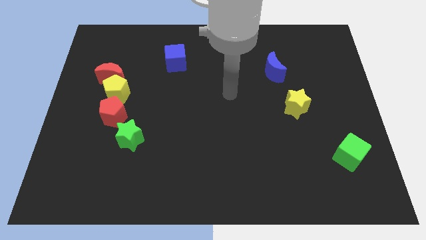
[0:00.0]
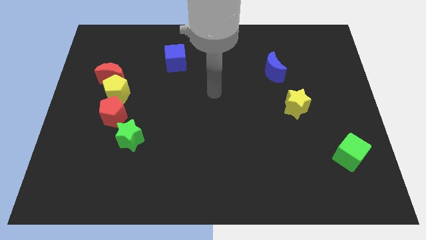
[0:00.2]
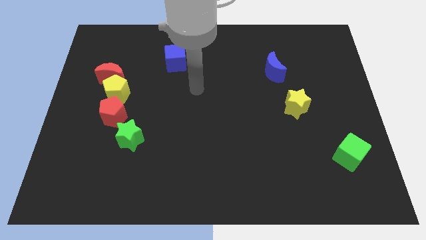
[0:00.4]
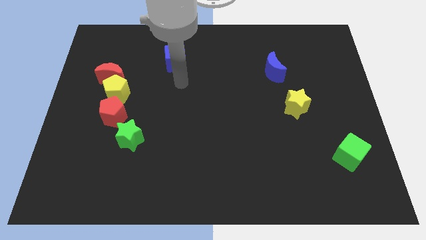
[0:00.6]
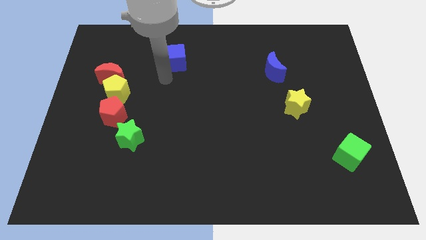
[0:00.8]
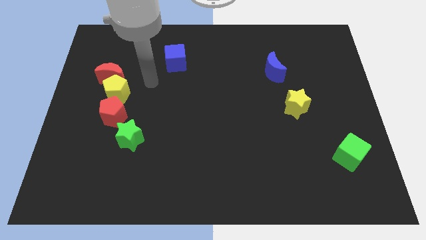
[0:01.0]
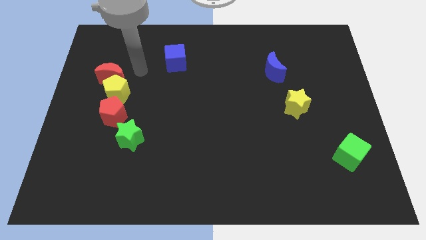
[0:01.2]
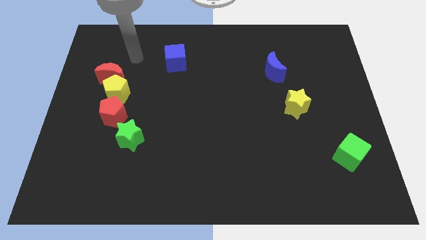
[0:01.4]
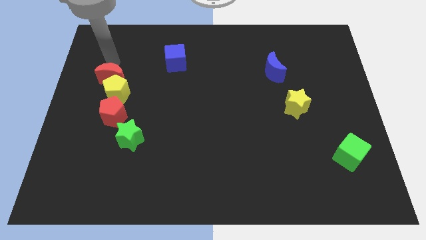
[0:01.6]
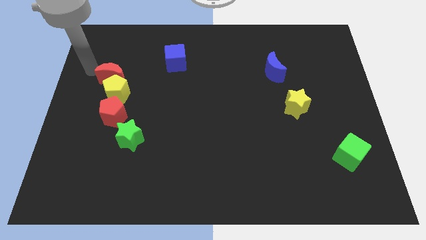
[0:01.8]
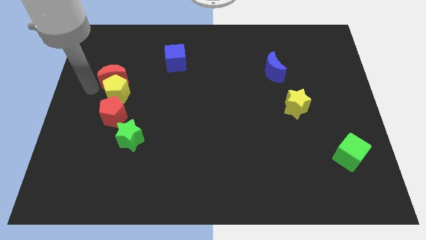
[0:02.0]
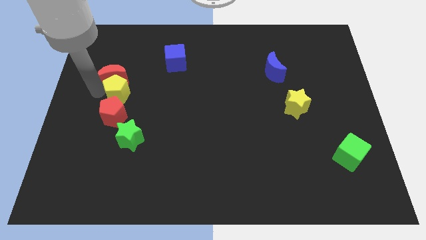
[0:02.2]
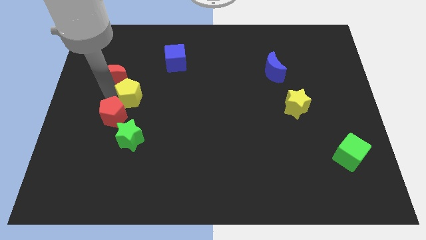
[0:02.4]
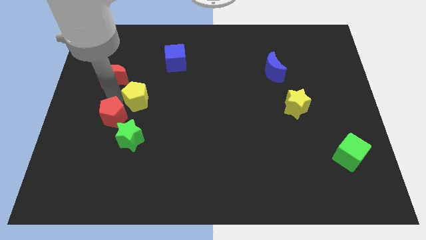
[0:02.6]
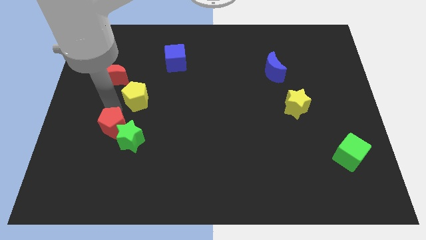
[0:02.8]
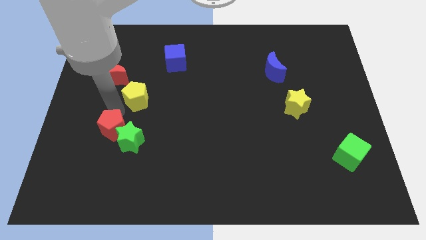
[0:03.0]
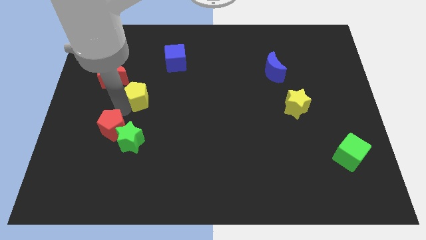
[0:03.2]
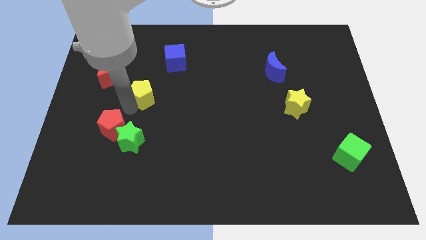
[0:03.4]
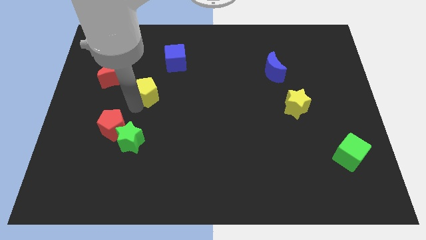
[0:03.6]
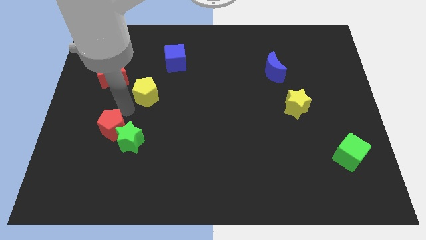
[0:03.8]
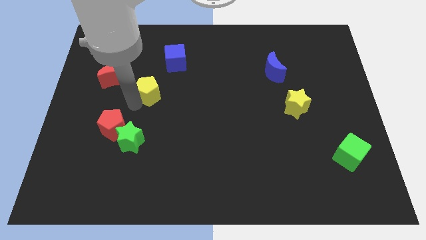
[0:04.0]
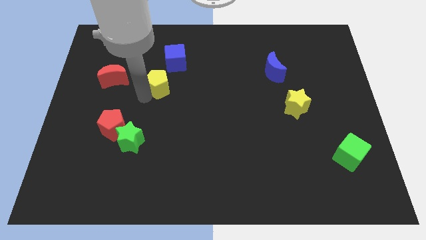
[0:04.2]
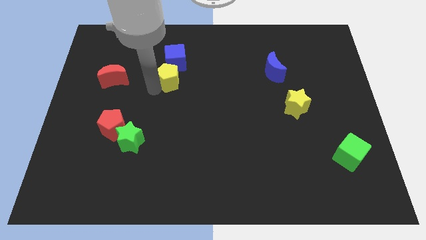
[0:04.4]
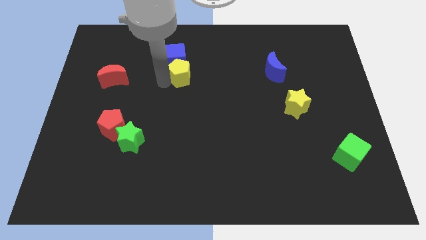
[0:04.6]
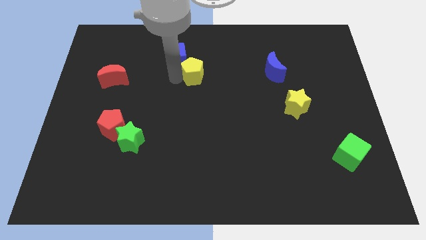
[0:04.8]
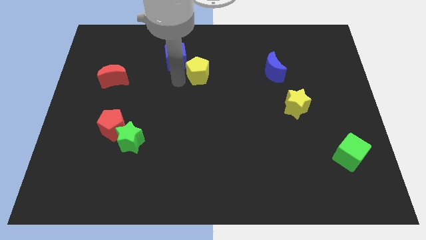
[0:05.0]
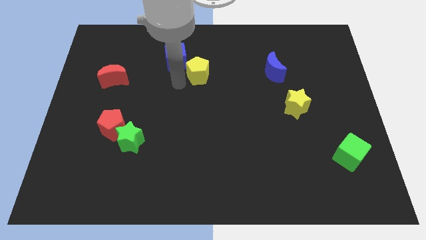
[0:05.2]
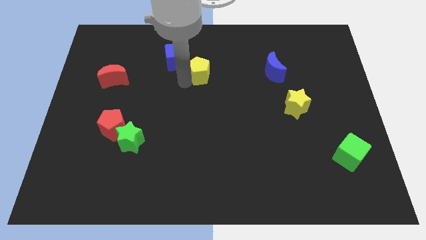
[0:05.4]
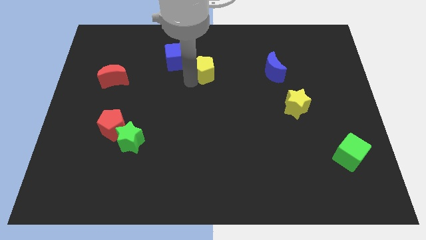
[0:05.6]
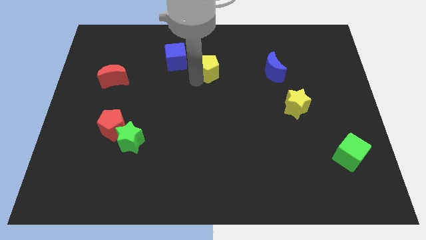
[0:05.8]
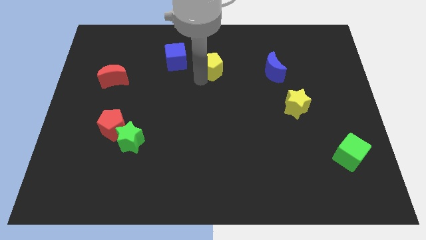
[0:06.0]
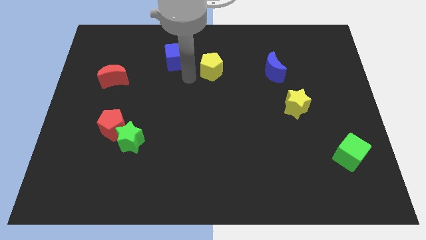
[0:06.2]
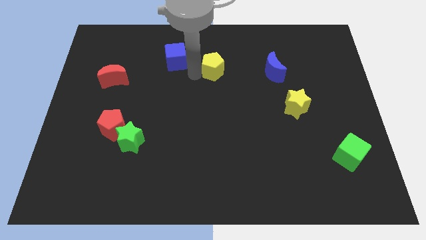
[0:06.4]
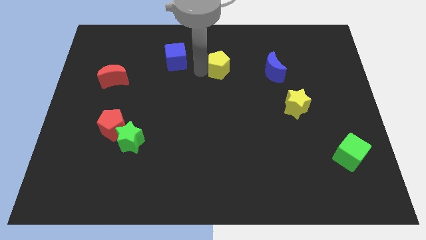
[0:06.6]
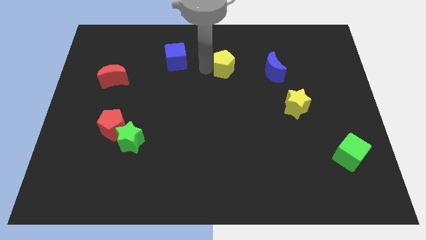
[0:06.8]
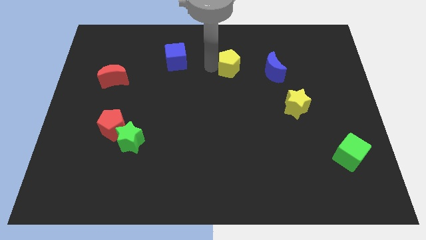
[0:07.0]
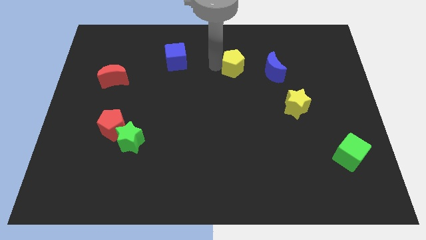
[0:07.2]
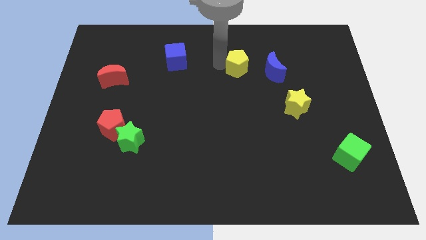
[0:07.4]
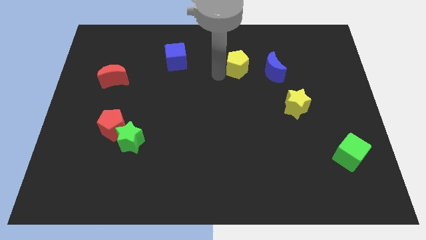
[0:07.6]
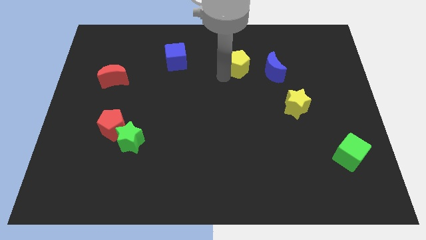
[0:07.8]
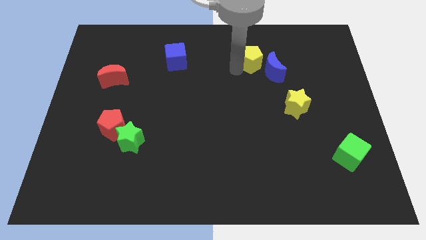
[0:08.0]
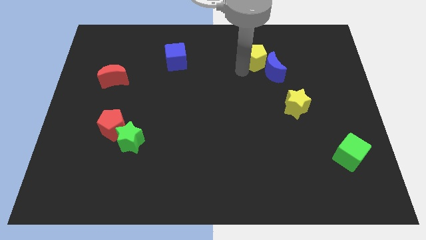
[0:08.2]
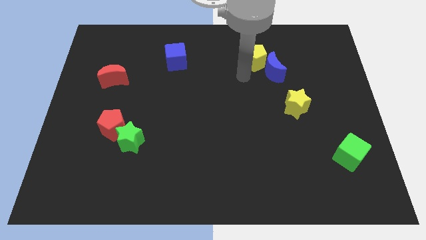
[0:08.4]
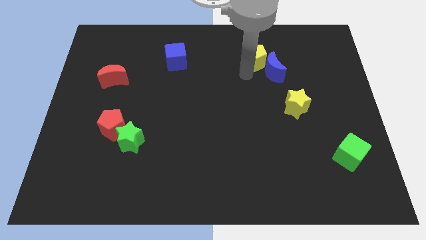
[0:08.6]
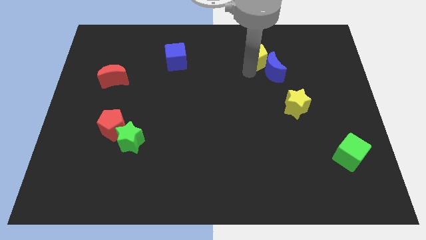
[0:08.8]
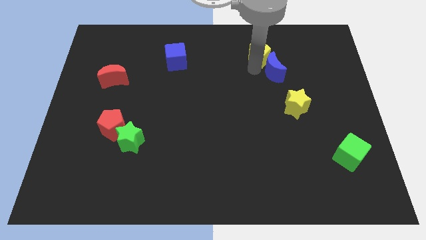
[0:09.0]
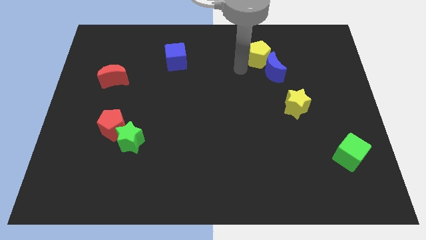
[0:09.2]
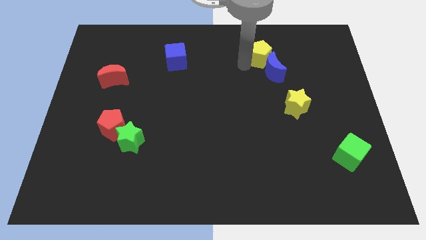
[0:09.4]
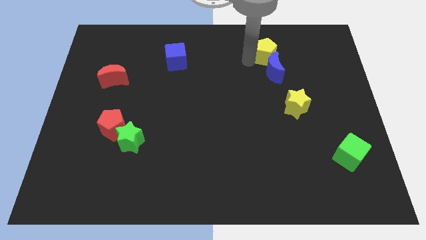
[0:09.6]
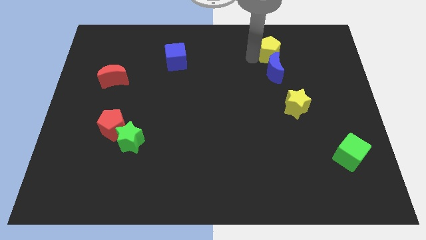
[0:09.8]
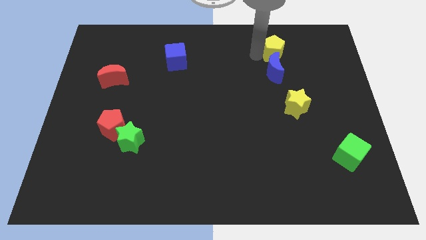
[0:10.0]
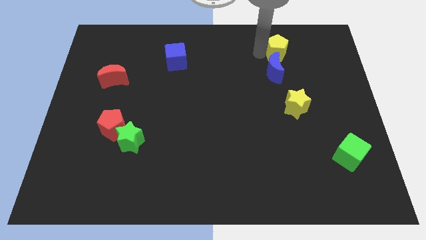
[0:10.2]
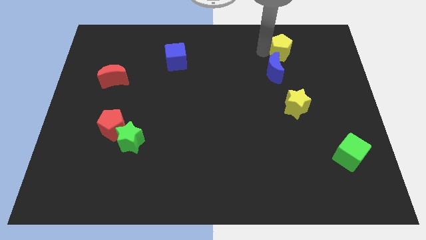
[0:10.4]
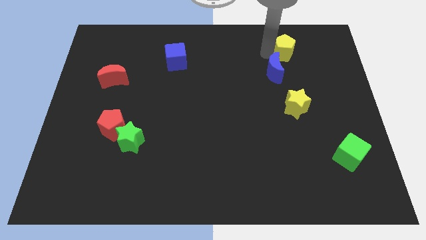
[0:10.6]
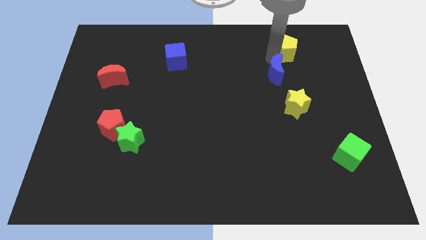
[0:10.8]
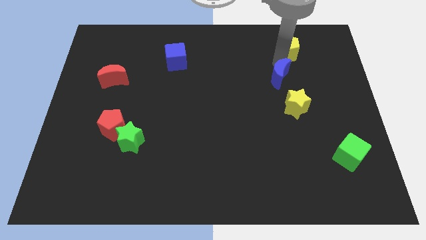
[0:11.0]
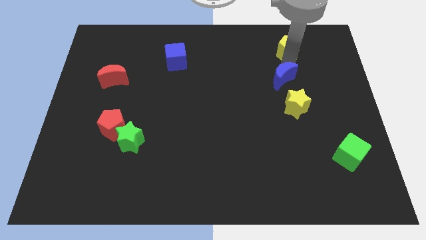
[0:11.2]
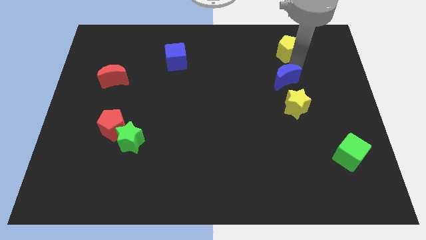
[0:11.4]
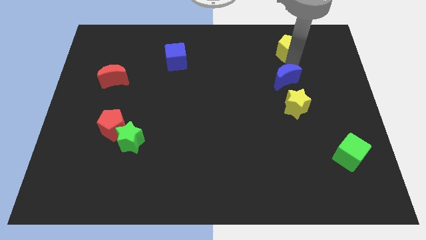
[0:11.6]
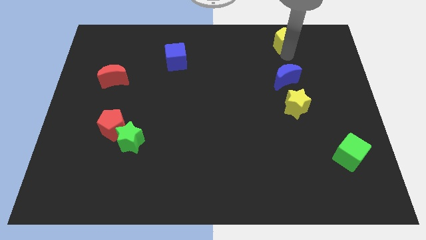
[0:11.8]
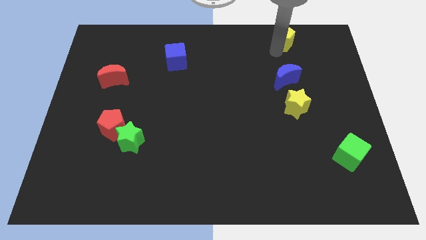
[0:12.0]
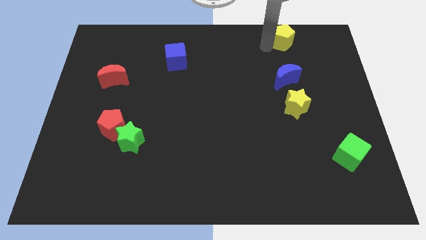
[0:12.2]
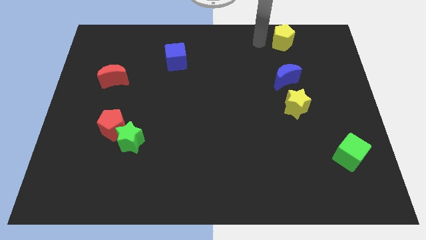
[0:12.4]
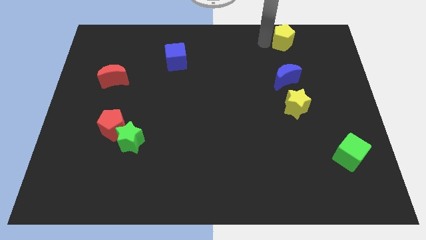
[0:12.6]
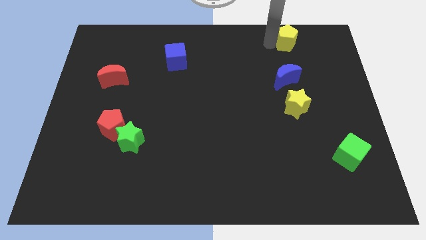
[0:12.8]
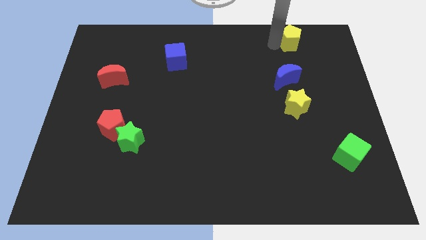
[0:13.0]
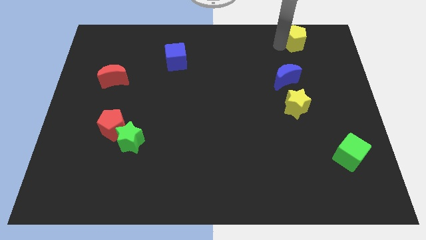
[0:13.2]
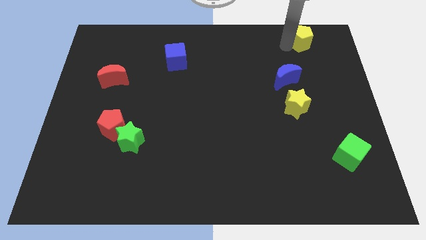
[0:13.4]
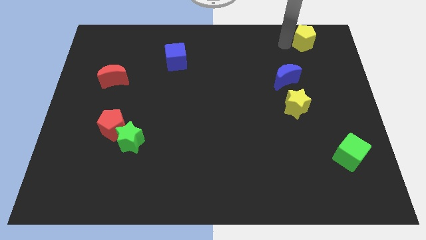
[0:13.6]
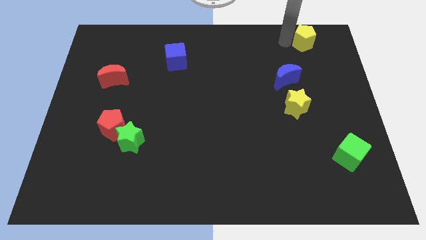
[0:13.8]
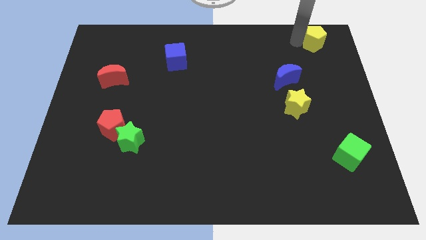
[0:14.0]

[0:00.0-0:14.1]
slide the yellow pentagon to the top right corner

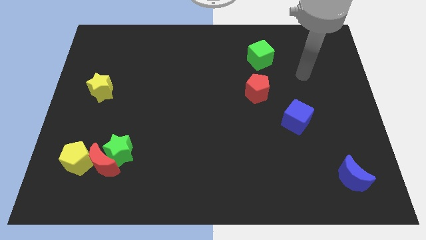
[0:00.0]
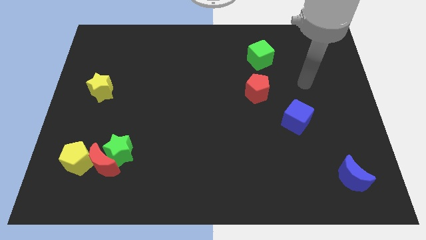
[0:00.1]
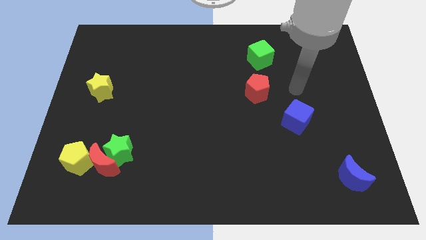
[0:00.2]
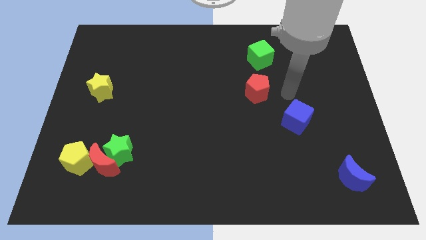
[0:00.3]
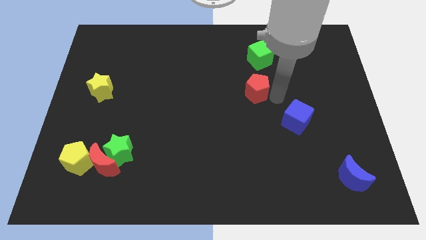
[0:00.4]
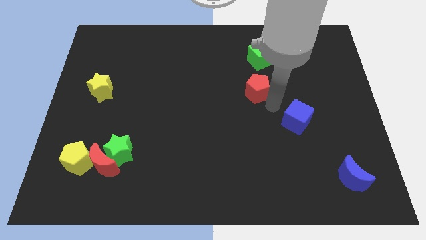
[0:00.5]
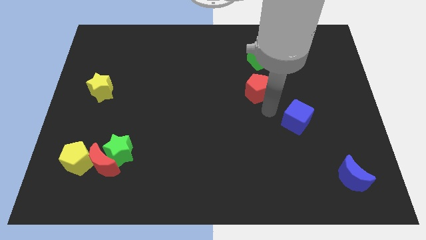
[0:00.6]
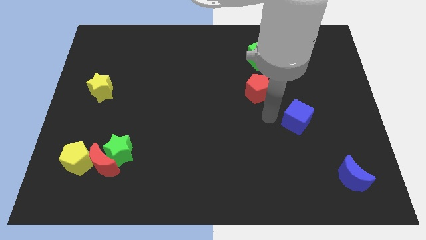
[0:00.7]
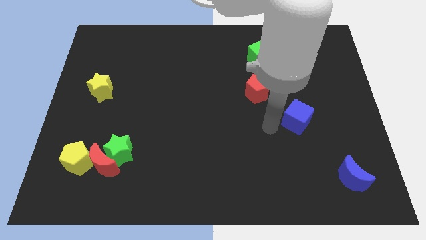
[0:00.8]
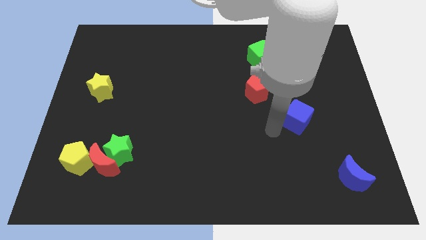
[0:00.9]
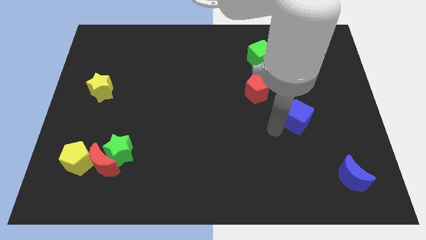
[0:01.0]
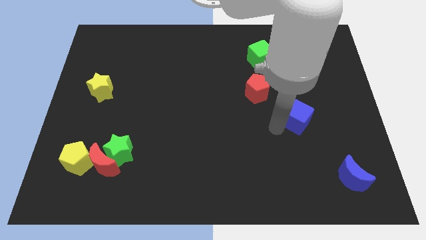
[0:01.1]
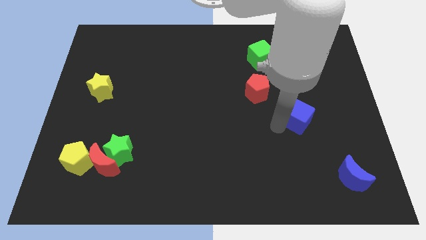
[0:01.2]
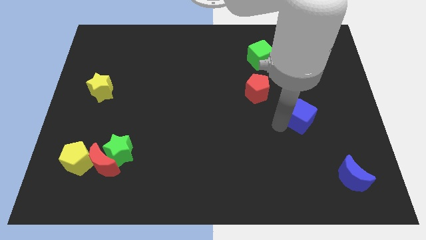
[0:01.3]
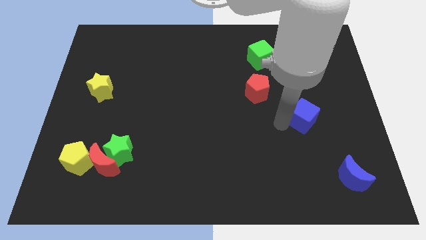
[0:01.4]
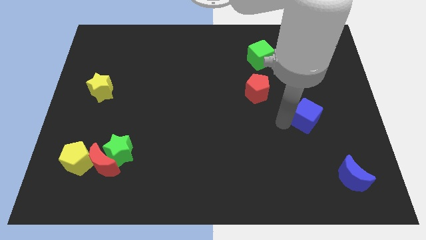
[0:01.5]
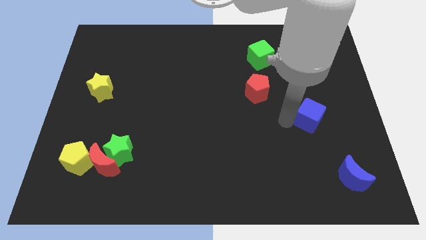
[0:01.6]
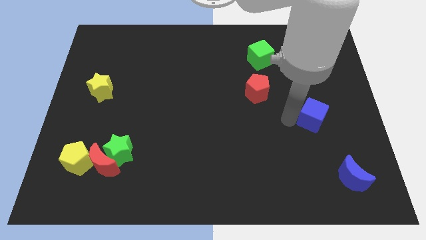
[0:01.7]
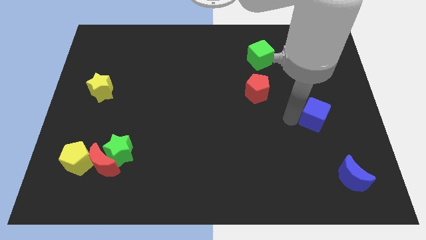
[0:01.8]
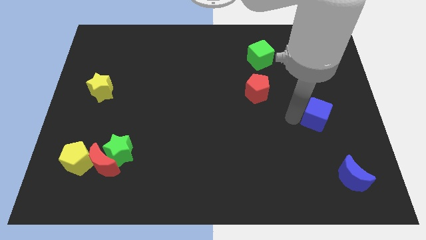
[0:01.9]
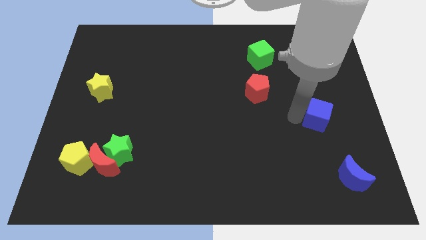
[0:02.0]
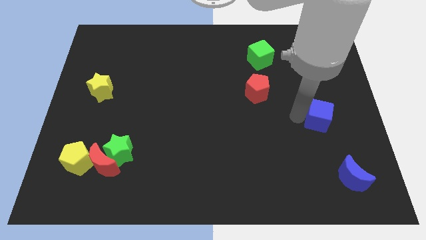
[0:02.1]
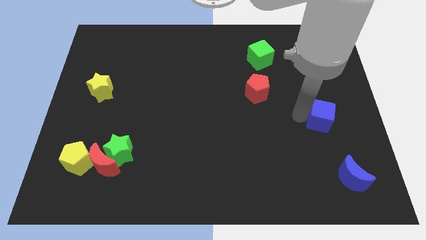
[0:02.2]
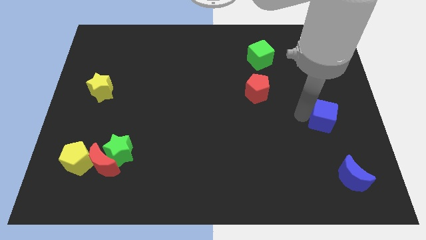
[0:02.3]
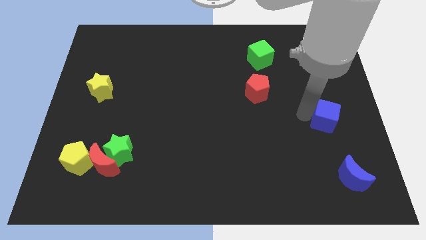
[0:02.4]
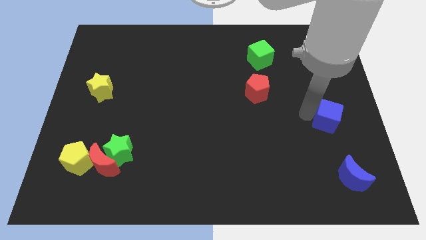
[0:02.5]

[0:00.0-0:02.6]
push the blue cube to the right side of the board
